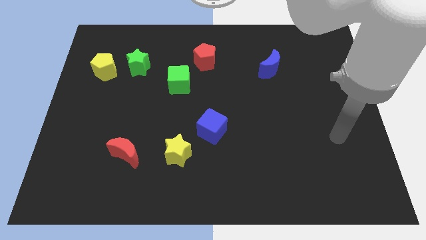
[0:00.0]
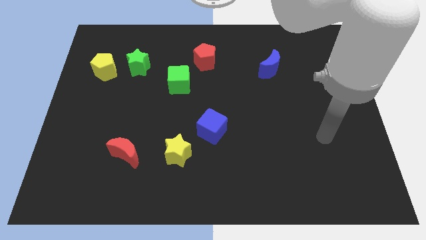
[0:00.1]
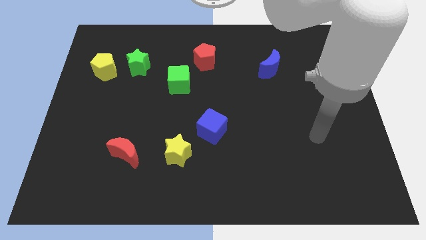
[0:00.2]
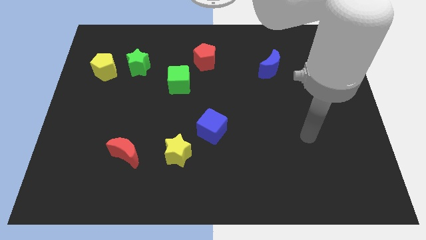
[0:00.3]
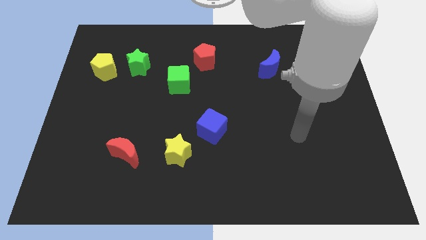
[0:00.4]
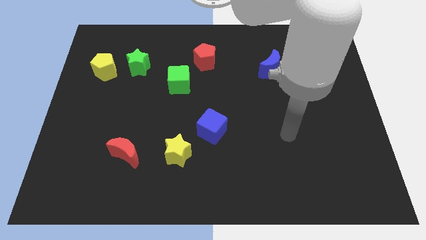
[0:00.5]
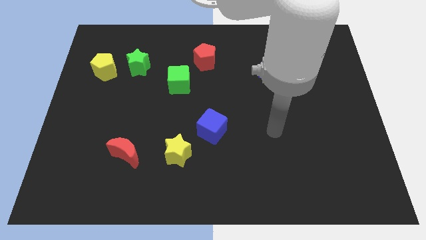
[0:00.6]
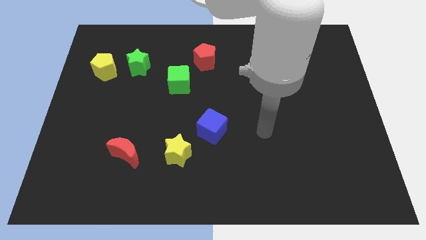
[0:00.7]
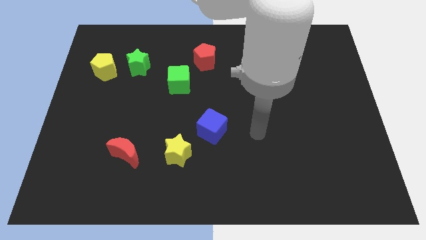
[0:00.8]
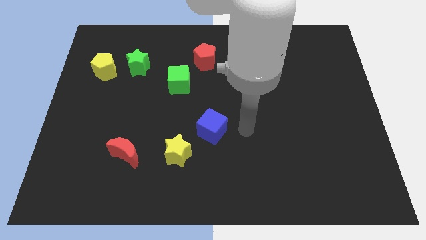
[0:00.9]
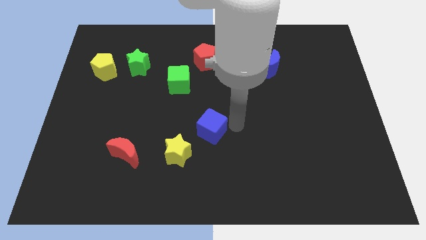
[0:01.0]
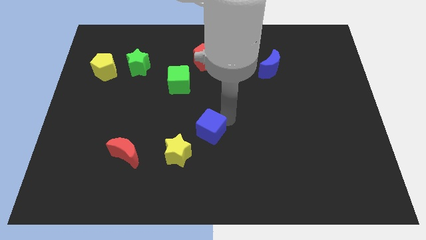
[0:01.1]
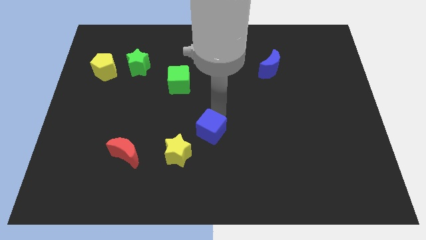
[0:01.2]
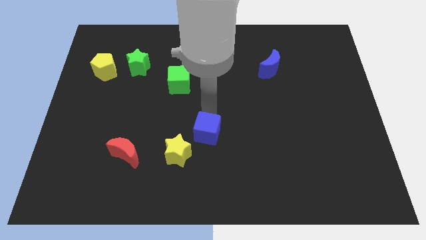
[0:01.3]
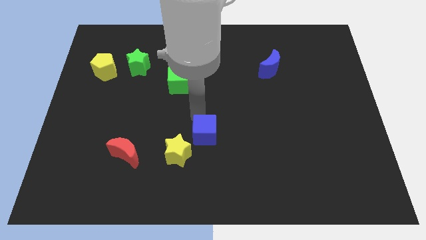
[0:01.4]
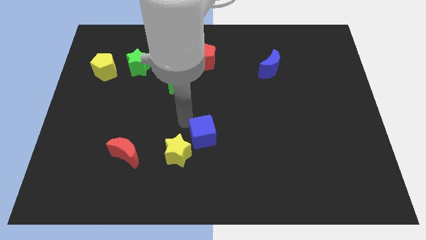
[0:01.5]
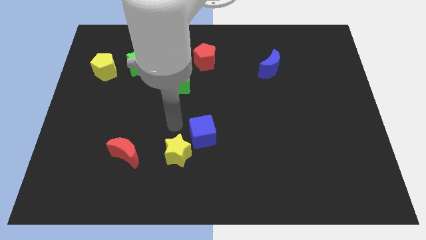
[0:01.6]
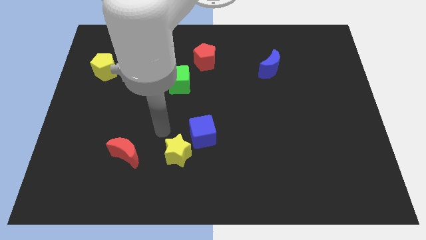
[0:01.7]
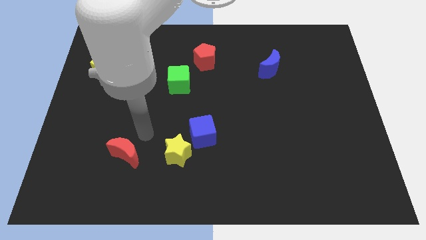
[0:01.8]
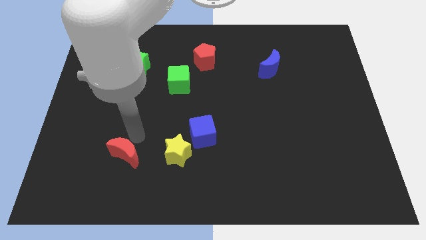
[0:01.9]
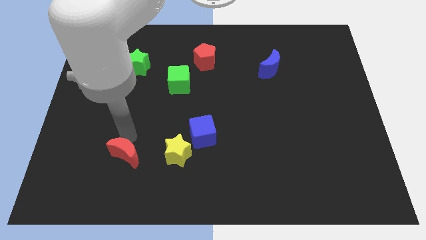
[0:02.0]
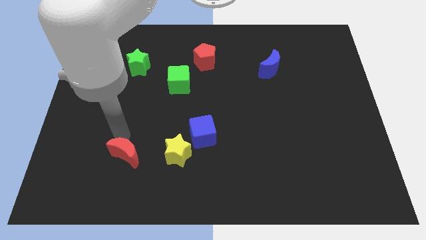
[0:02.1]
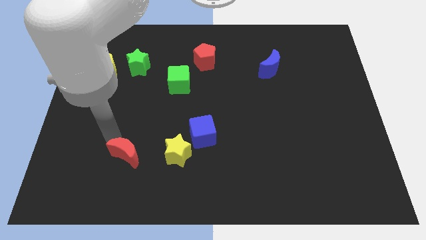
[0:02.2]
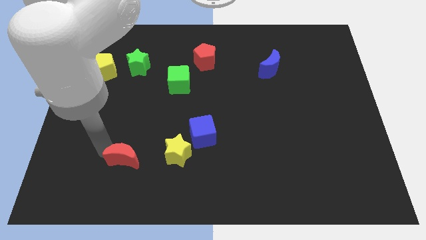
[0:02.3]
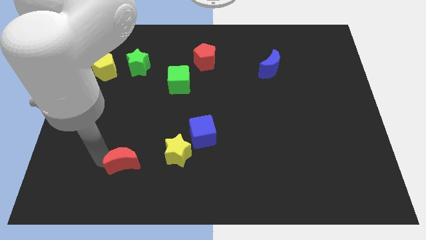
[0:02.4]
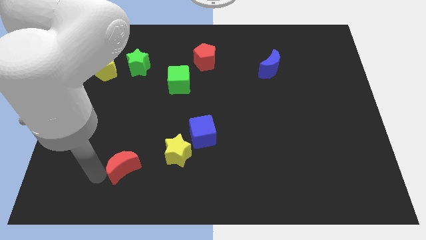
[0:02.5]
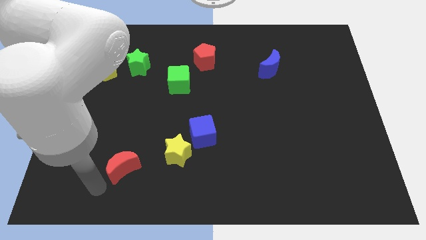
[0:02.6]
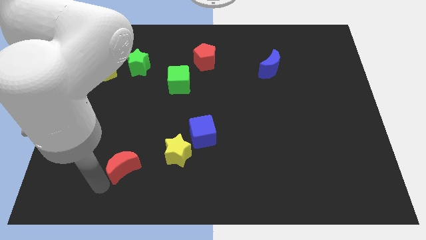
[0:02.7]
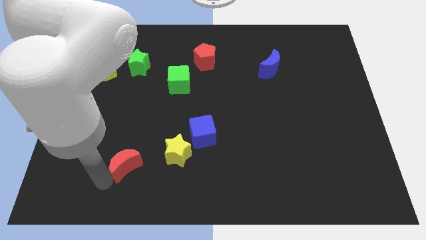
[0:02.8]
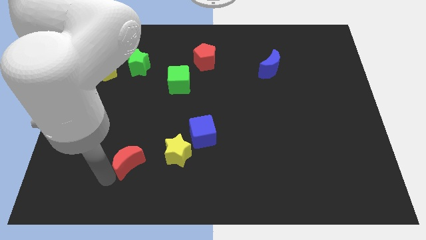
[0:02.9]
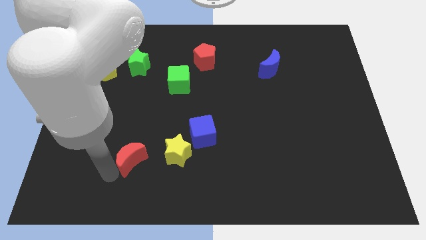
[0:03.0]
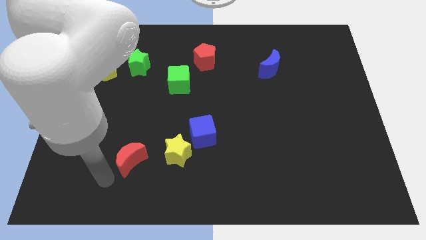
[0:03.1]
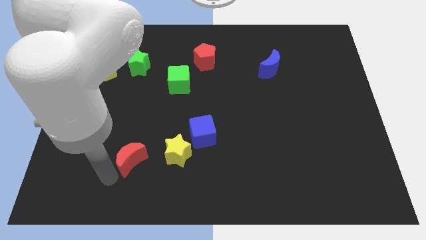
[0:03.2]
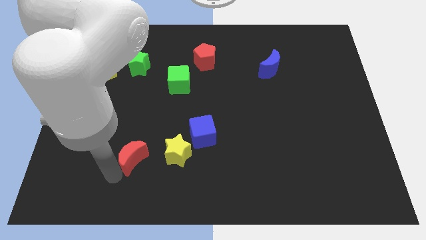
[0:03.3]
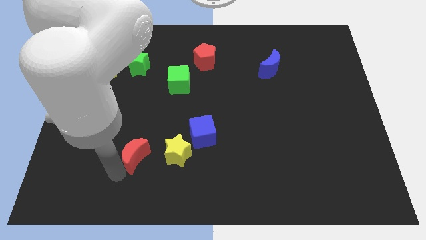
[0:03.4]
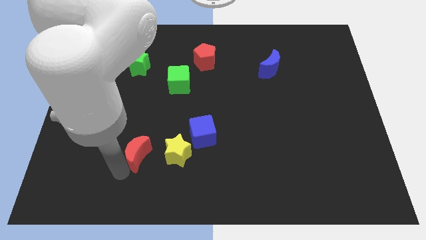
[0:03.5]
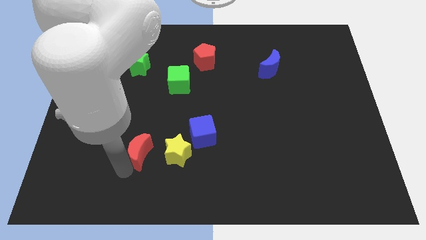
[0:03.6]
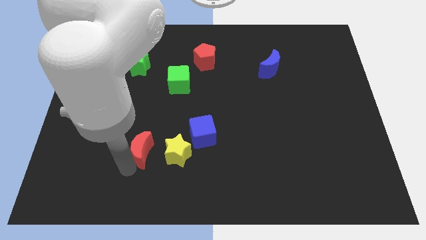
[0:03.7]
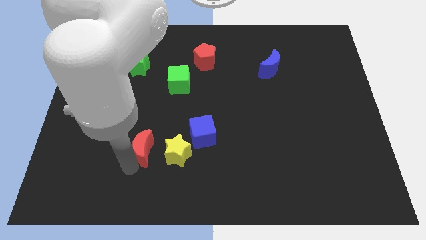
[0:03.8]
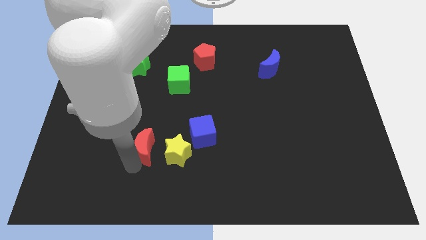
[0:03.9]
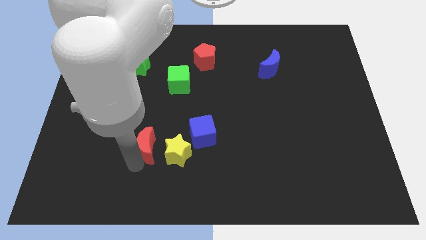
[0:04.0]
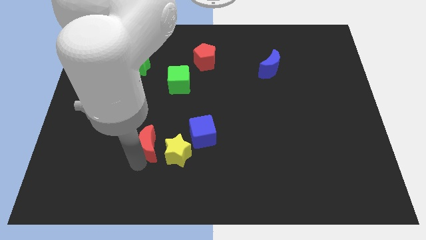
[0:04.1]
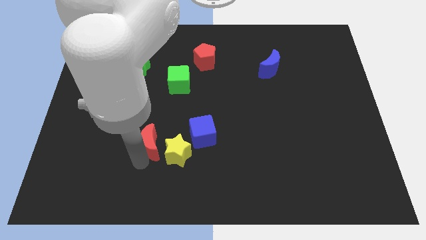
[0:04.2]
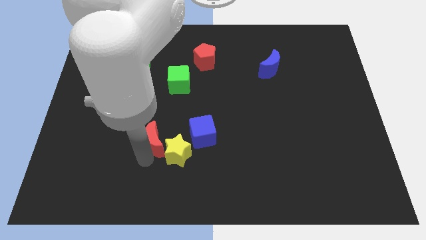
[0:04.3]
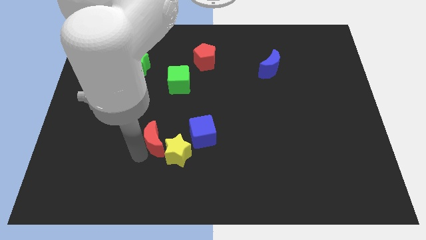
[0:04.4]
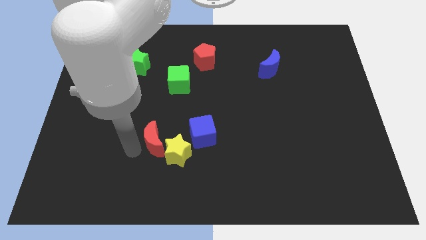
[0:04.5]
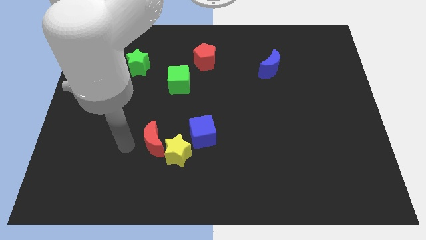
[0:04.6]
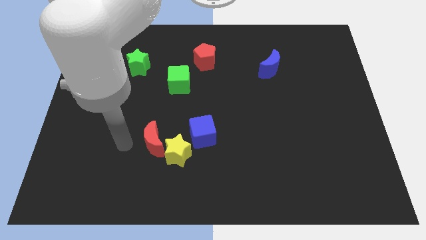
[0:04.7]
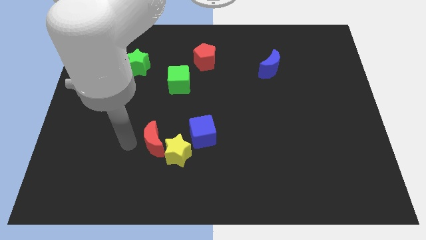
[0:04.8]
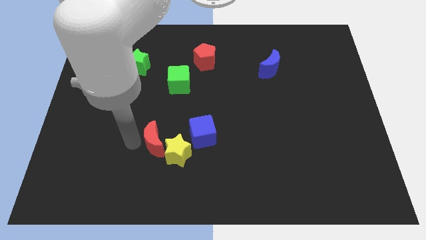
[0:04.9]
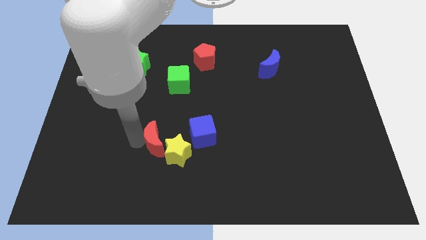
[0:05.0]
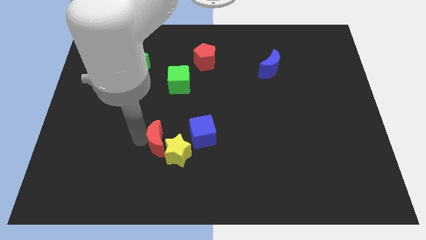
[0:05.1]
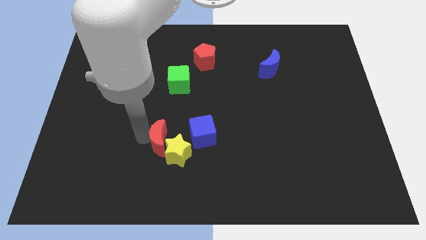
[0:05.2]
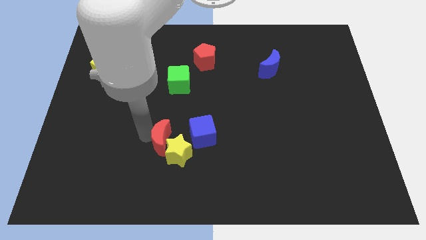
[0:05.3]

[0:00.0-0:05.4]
move the red moon a bit to the right

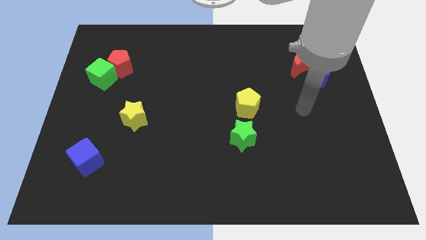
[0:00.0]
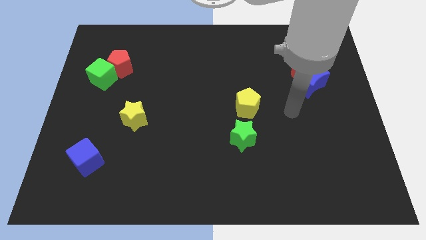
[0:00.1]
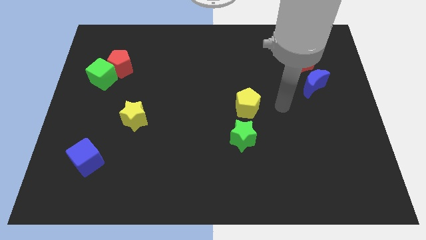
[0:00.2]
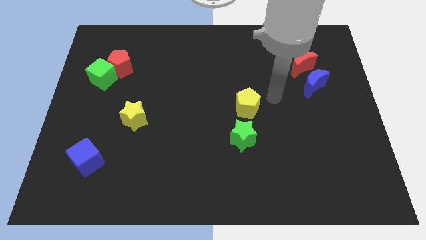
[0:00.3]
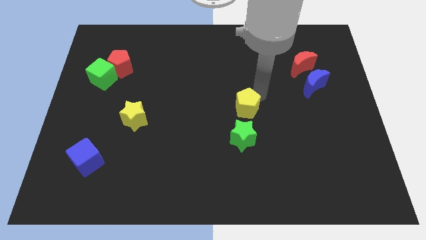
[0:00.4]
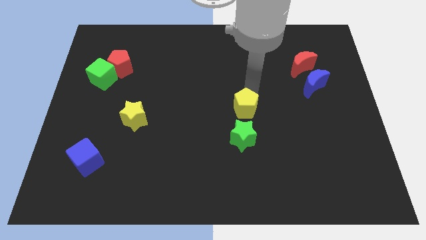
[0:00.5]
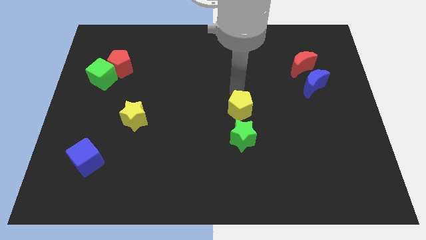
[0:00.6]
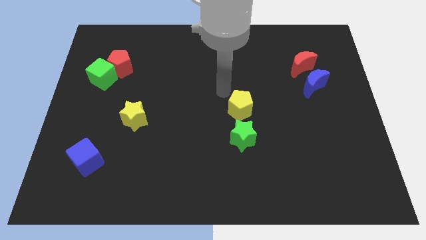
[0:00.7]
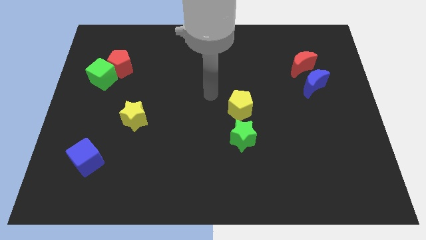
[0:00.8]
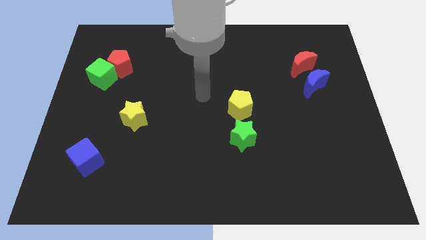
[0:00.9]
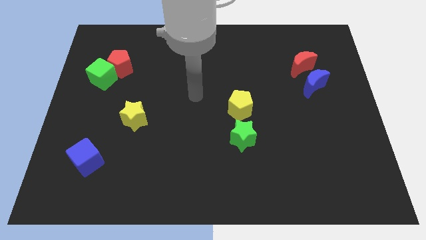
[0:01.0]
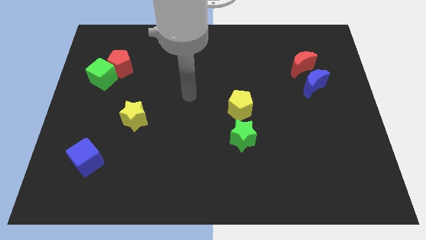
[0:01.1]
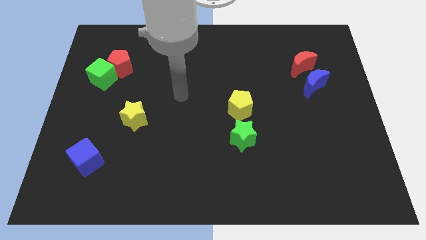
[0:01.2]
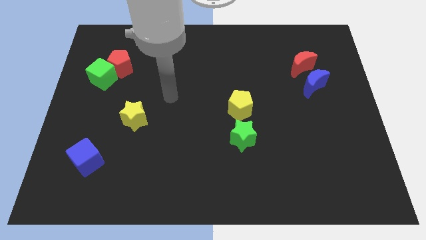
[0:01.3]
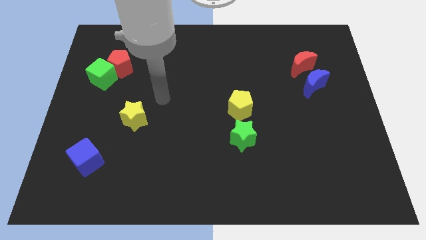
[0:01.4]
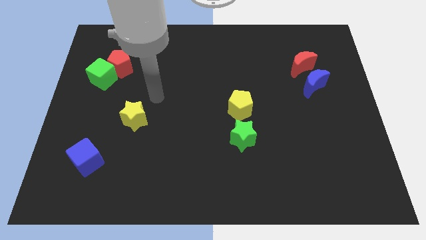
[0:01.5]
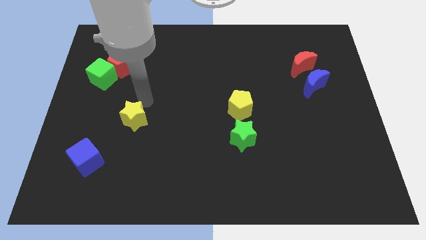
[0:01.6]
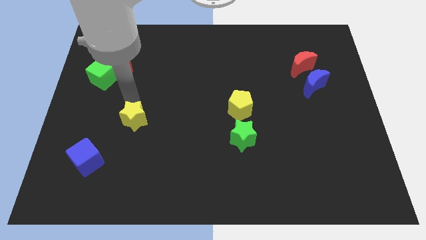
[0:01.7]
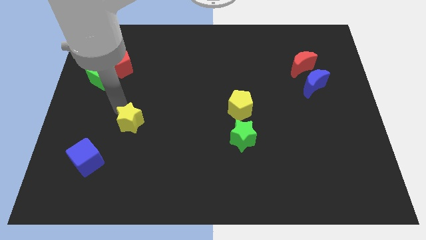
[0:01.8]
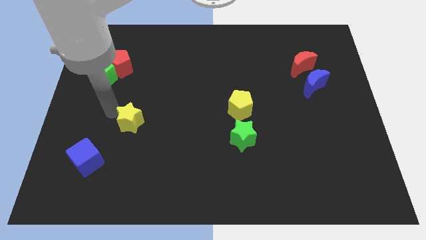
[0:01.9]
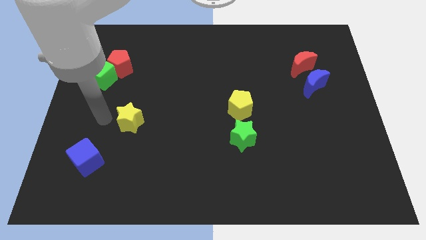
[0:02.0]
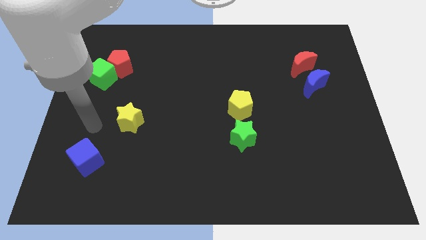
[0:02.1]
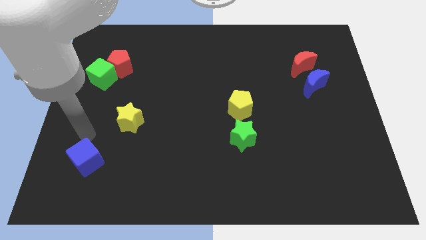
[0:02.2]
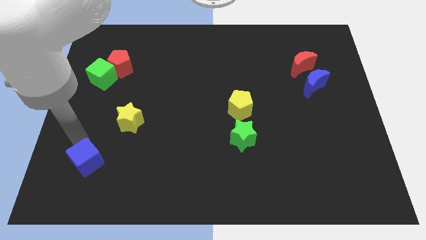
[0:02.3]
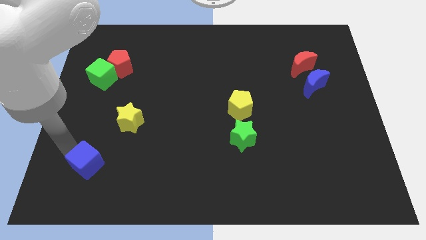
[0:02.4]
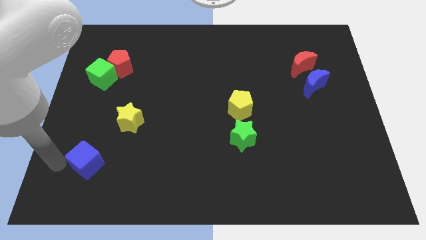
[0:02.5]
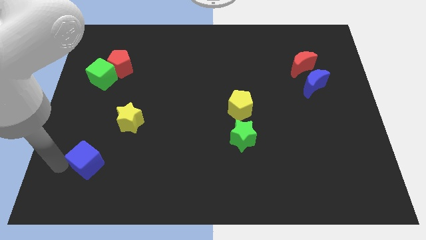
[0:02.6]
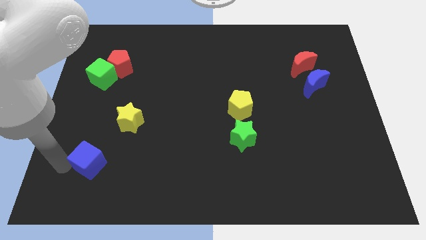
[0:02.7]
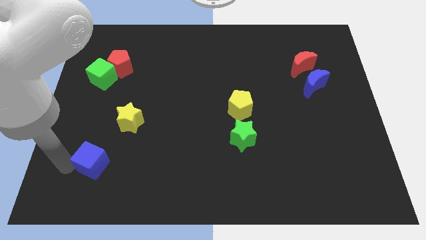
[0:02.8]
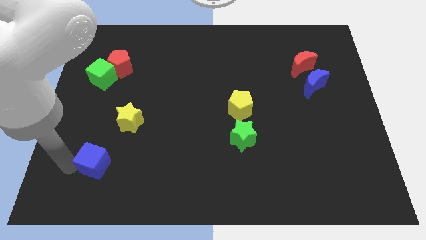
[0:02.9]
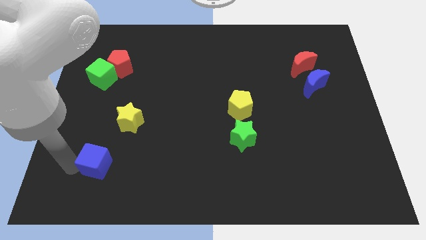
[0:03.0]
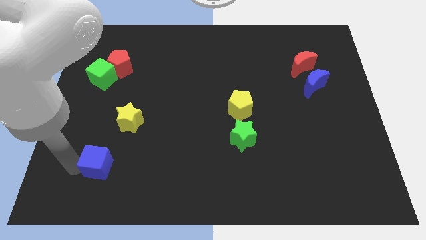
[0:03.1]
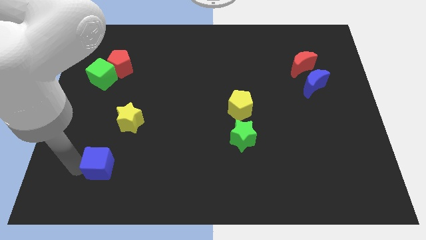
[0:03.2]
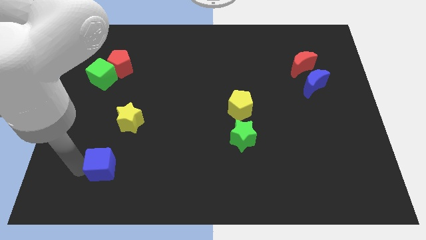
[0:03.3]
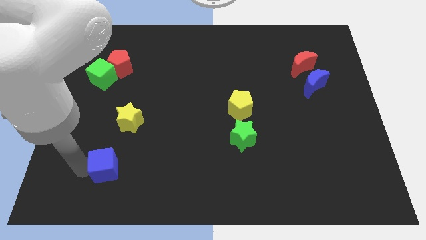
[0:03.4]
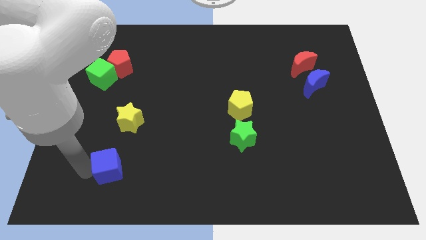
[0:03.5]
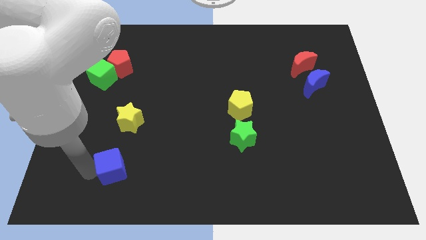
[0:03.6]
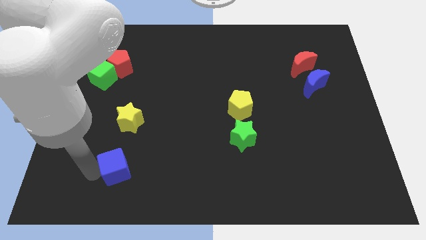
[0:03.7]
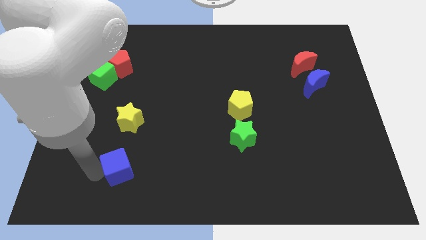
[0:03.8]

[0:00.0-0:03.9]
push the blue cube right a little
